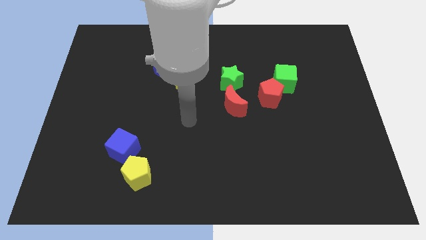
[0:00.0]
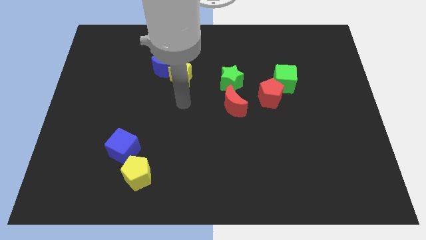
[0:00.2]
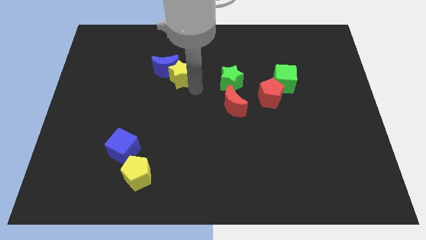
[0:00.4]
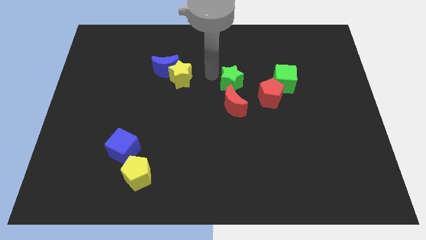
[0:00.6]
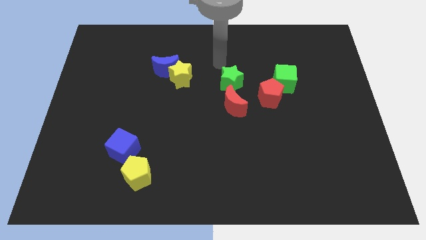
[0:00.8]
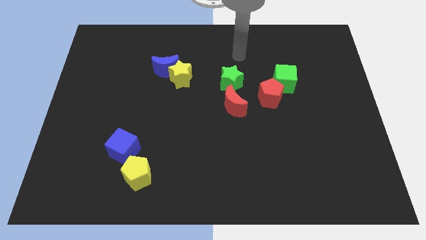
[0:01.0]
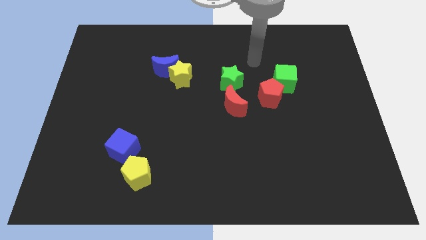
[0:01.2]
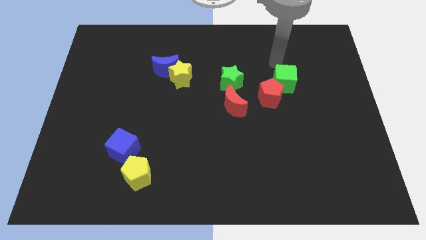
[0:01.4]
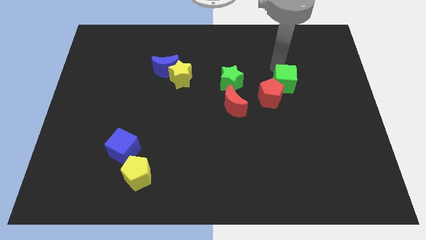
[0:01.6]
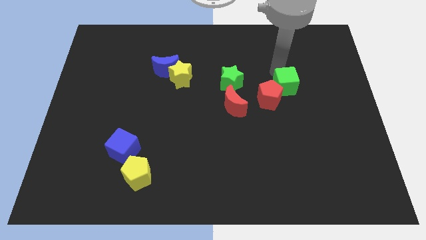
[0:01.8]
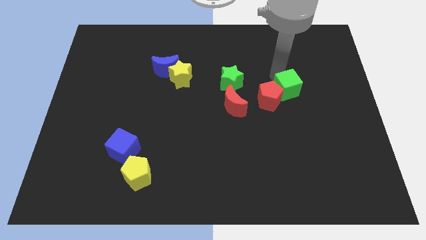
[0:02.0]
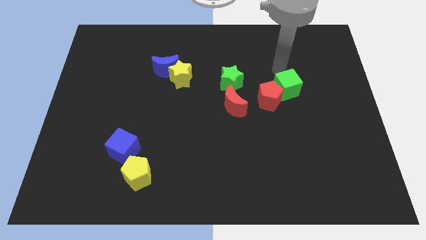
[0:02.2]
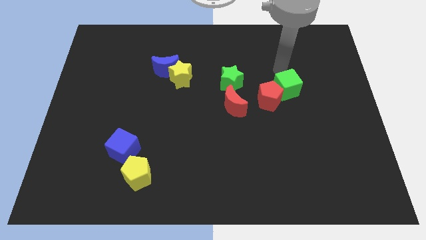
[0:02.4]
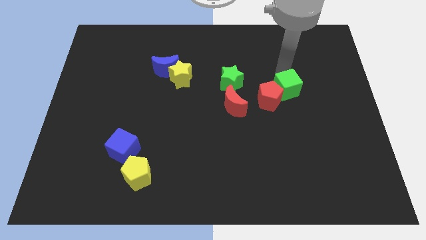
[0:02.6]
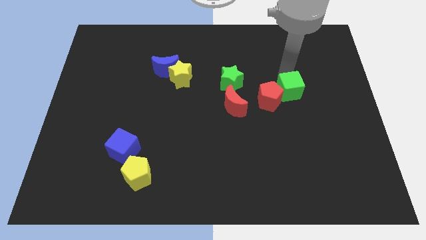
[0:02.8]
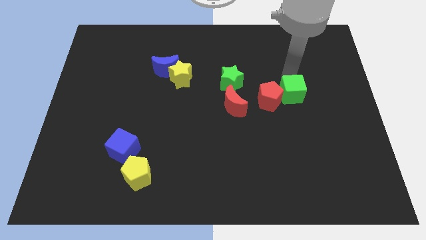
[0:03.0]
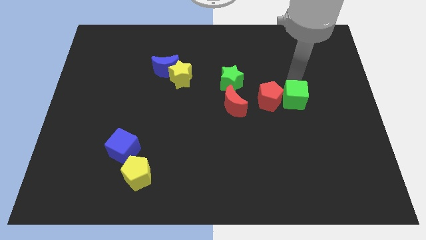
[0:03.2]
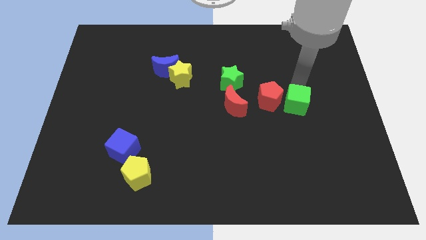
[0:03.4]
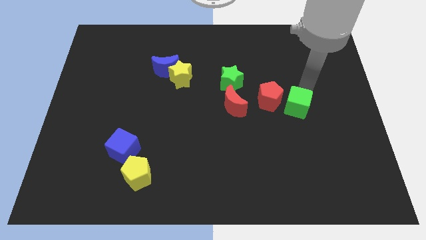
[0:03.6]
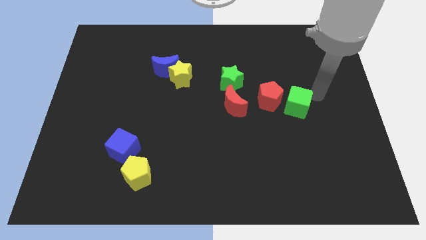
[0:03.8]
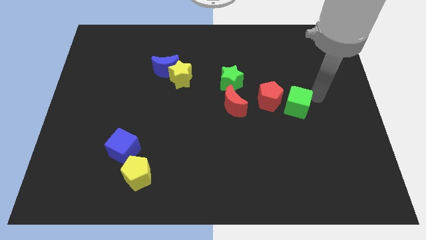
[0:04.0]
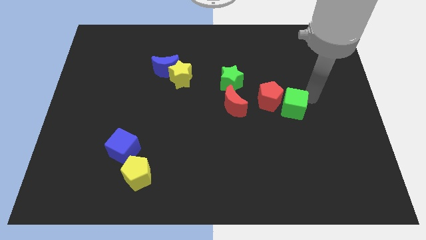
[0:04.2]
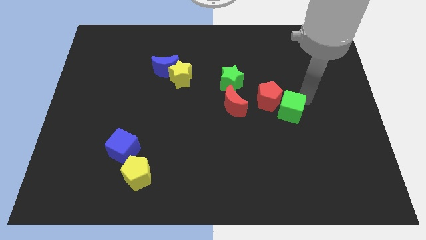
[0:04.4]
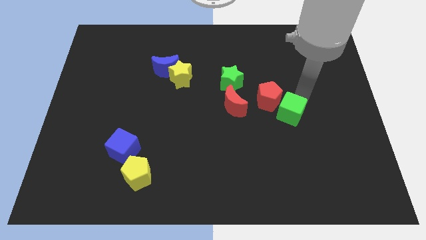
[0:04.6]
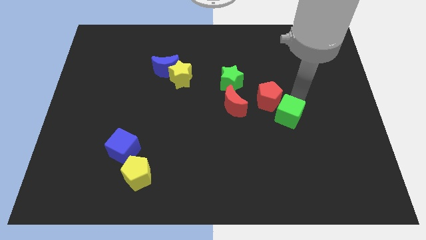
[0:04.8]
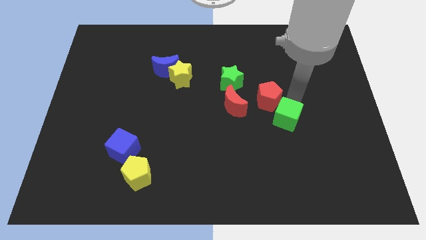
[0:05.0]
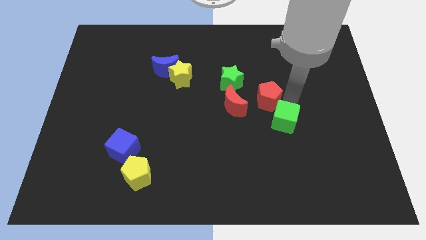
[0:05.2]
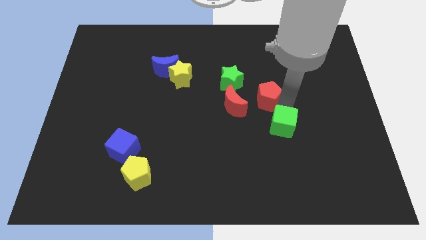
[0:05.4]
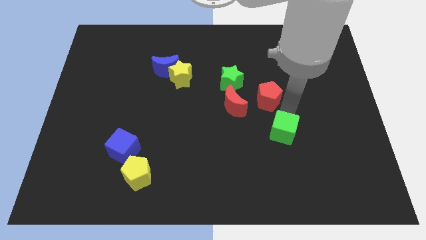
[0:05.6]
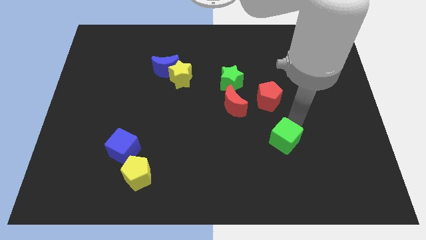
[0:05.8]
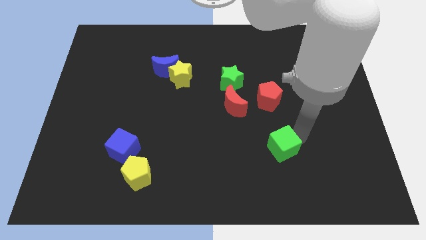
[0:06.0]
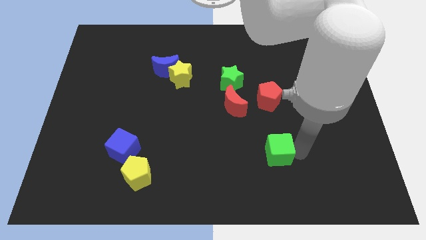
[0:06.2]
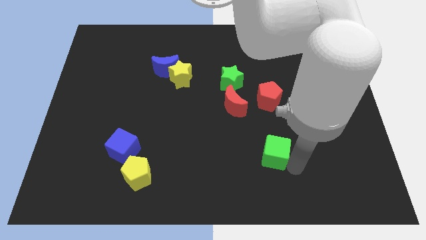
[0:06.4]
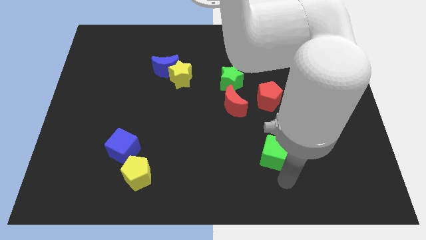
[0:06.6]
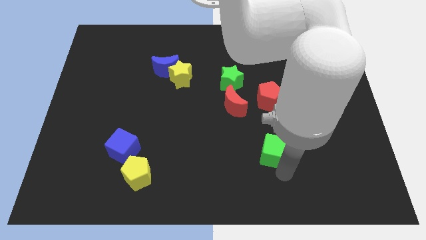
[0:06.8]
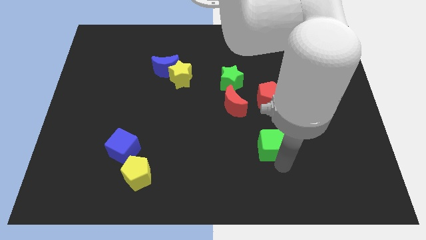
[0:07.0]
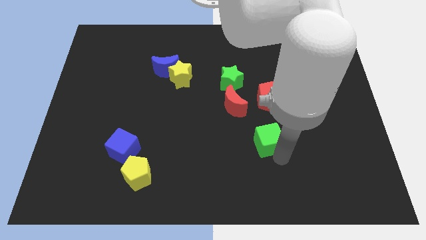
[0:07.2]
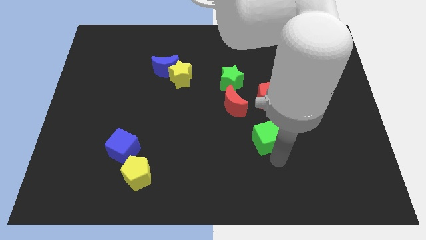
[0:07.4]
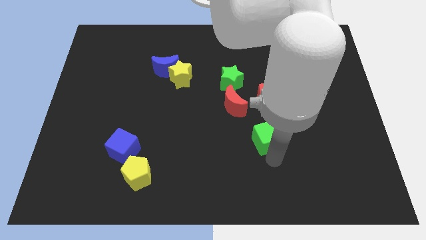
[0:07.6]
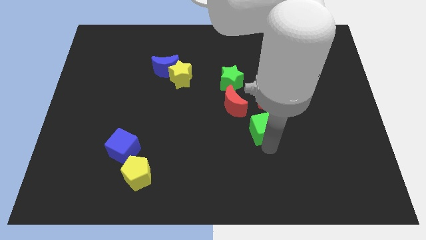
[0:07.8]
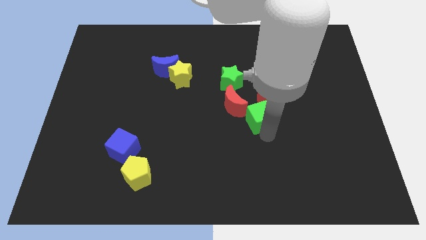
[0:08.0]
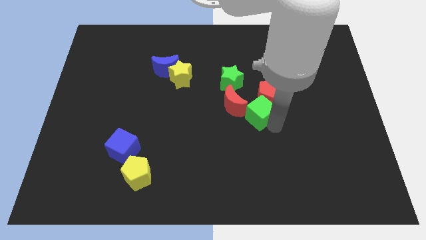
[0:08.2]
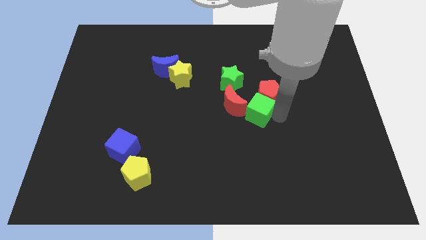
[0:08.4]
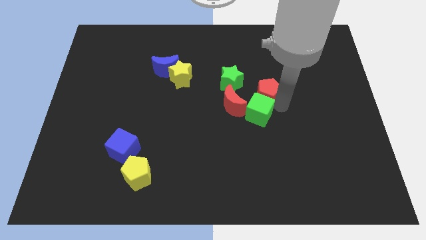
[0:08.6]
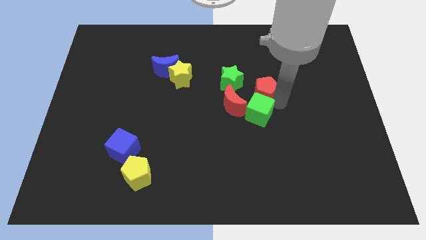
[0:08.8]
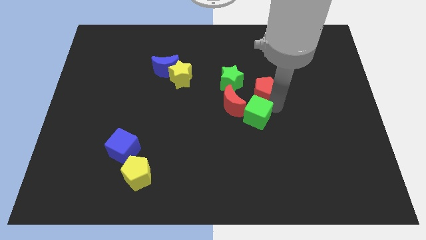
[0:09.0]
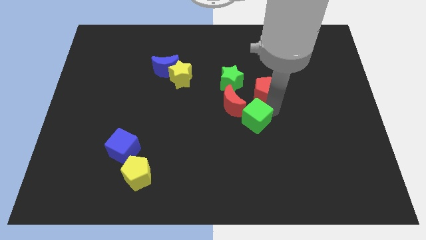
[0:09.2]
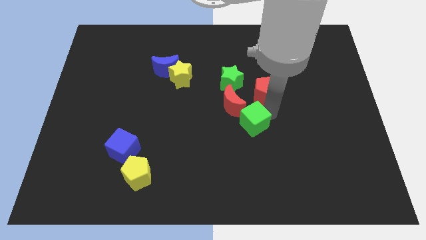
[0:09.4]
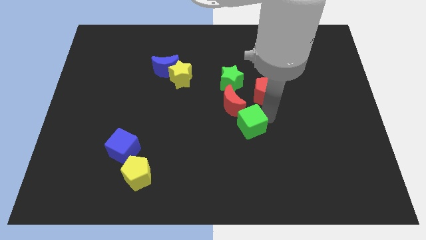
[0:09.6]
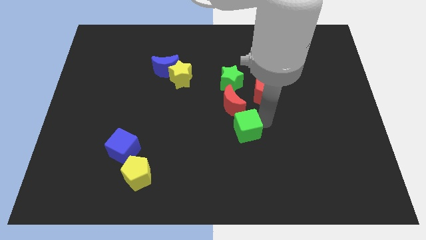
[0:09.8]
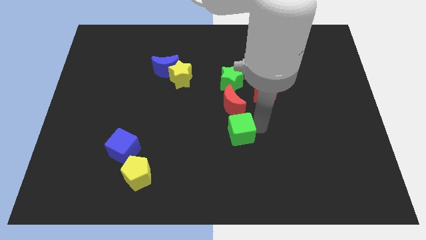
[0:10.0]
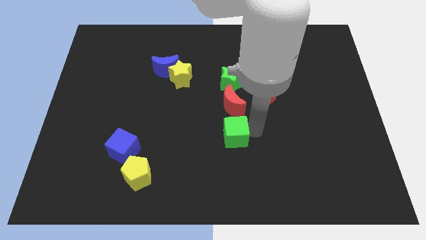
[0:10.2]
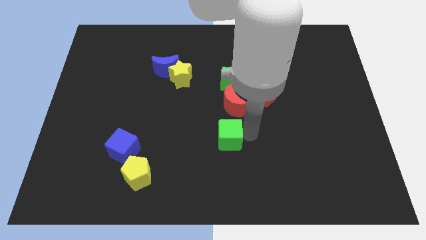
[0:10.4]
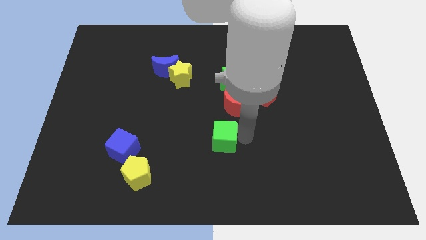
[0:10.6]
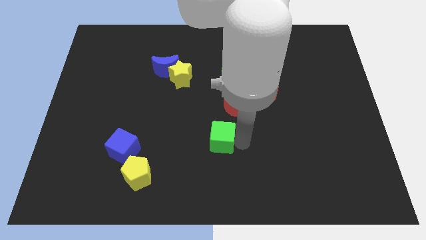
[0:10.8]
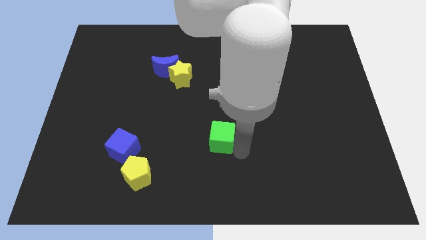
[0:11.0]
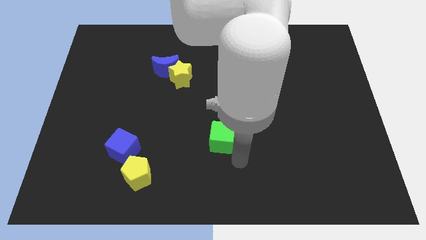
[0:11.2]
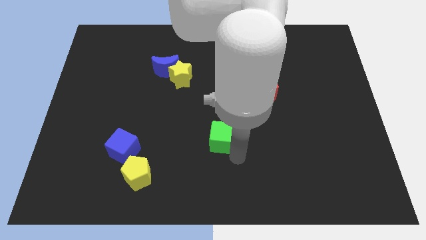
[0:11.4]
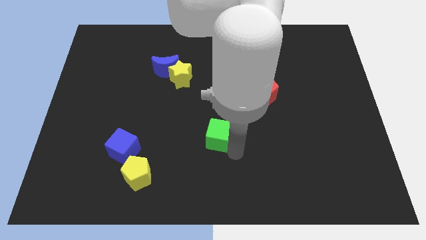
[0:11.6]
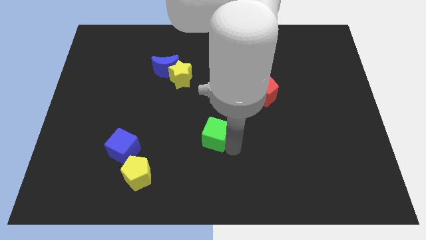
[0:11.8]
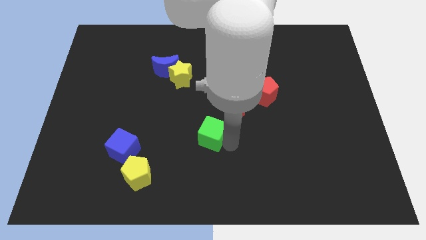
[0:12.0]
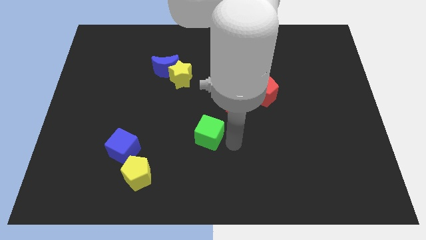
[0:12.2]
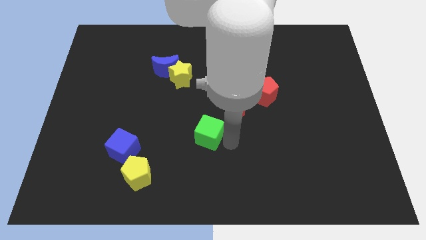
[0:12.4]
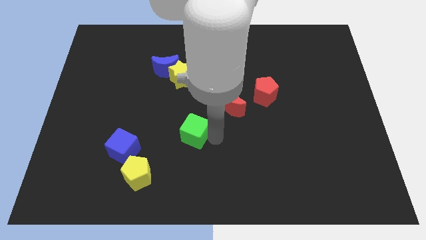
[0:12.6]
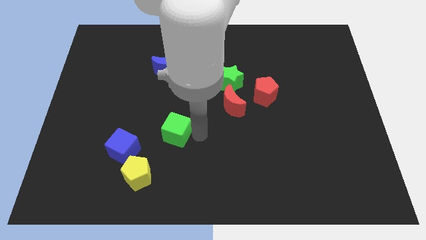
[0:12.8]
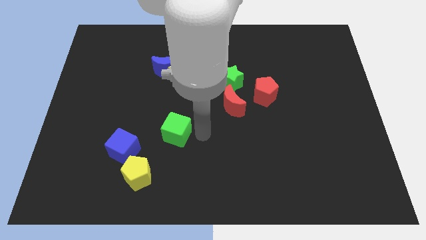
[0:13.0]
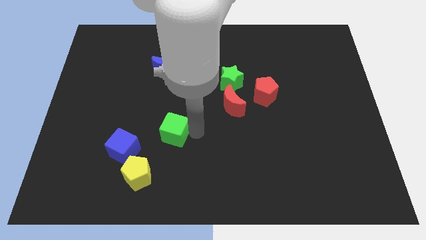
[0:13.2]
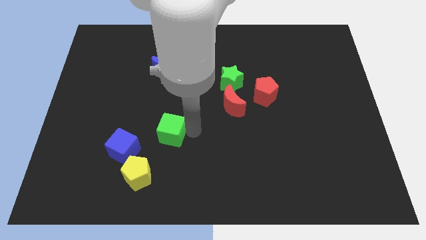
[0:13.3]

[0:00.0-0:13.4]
put the green cube to the top right side of the blue cube
